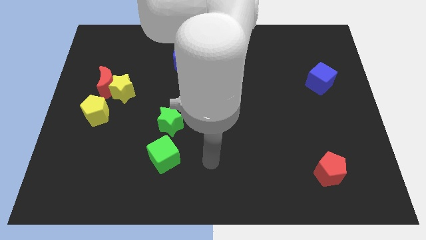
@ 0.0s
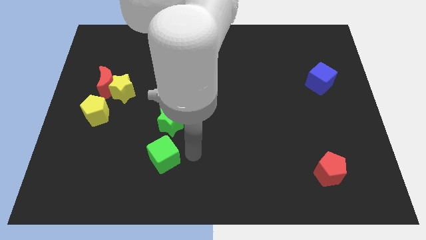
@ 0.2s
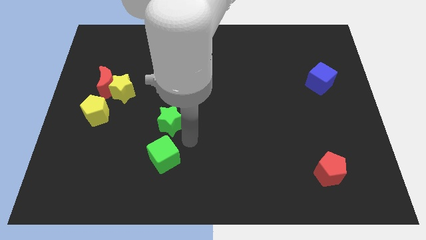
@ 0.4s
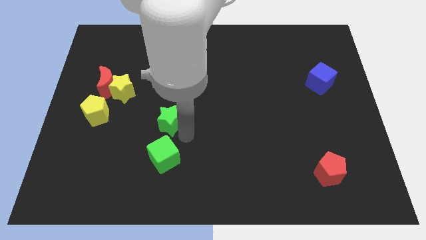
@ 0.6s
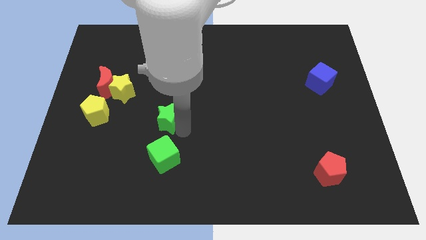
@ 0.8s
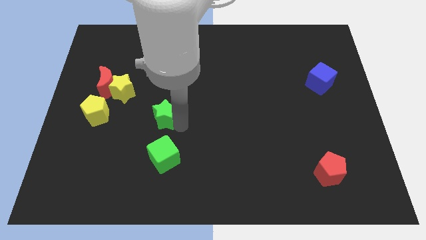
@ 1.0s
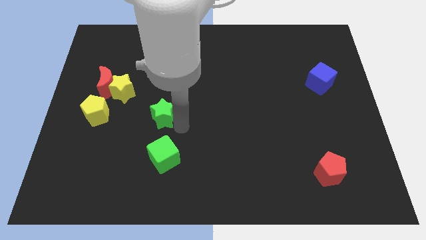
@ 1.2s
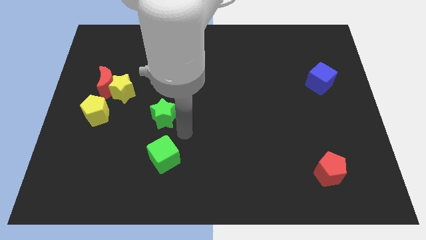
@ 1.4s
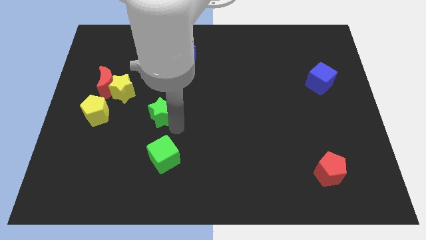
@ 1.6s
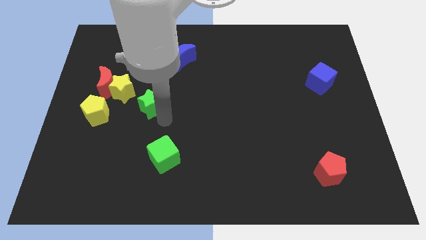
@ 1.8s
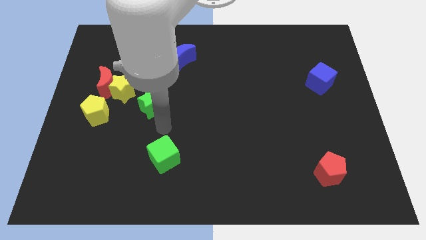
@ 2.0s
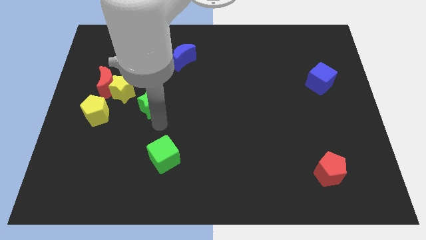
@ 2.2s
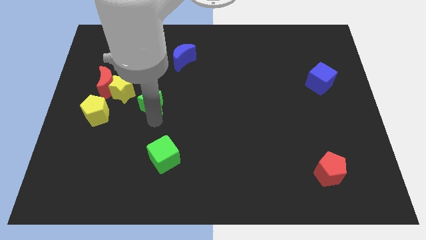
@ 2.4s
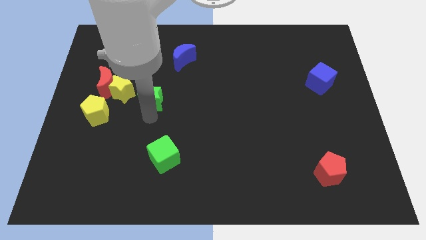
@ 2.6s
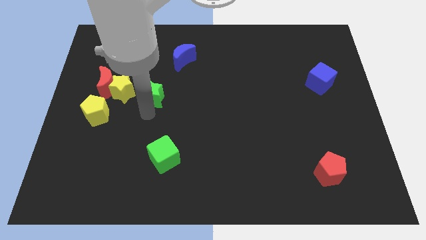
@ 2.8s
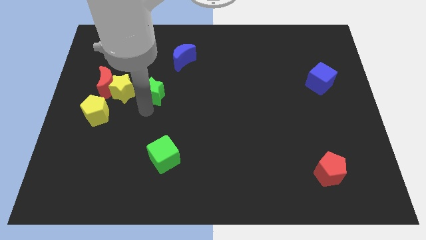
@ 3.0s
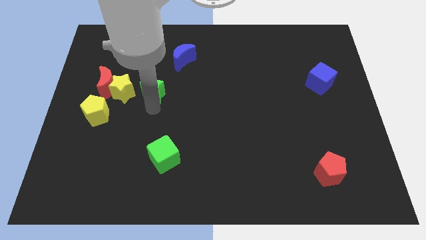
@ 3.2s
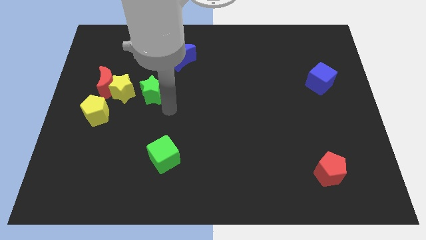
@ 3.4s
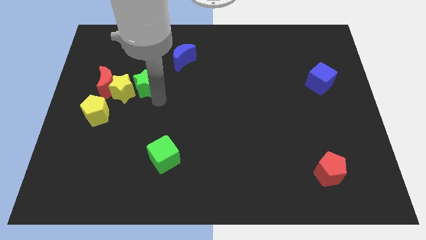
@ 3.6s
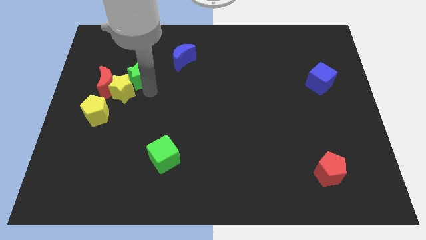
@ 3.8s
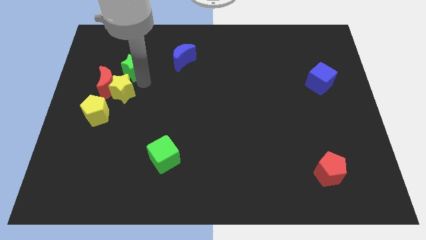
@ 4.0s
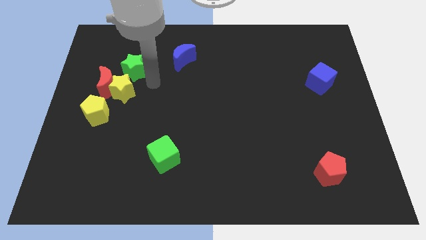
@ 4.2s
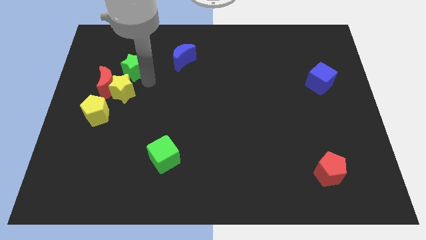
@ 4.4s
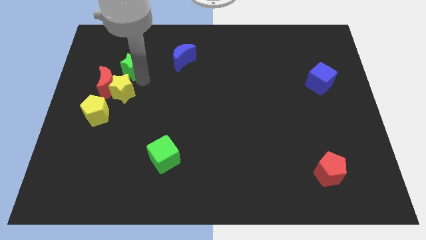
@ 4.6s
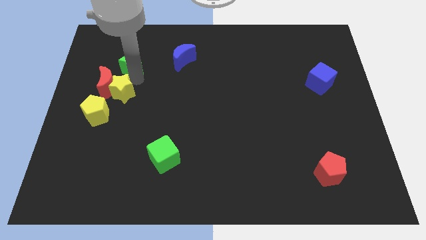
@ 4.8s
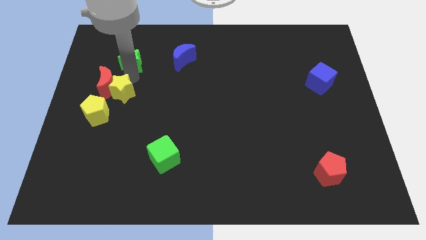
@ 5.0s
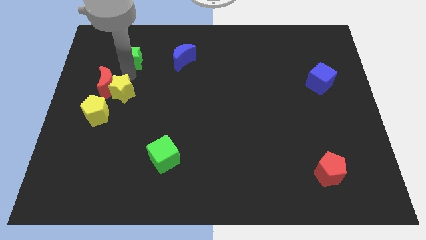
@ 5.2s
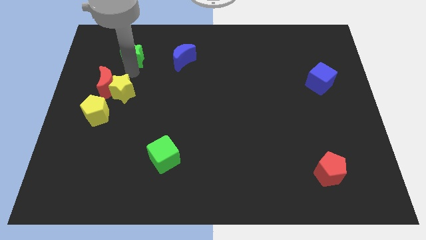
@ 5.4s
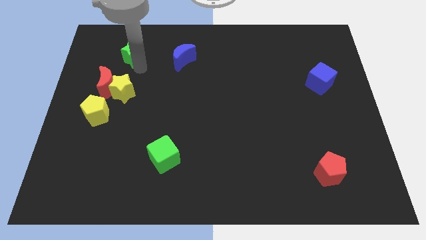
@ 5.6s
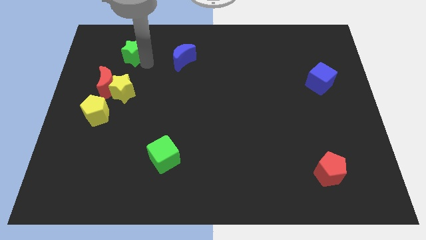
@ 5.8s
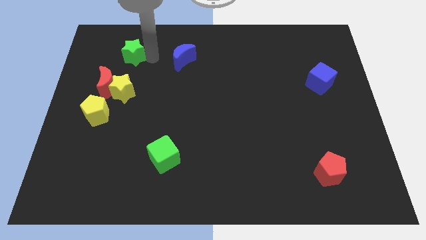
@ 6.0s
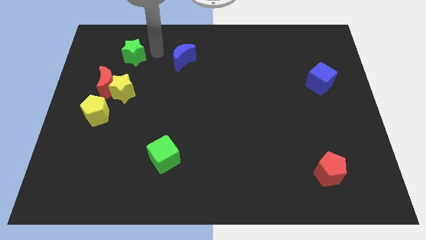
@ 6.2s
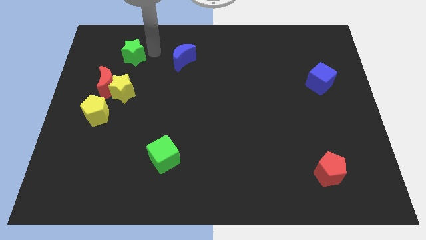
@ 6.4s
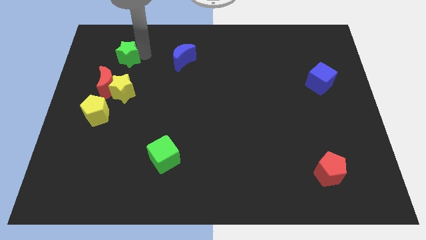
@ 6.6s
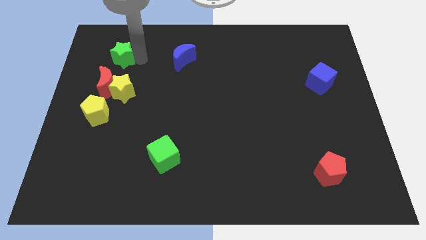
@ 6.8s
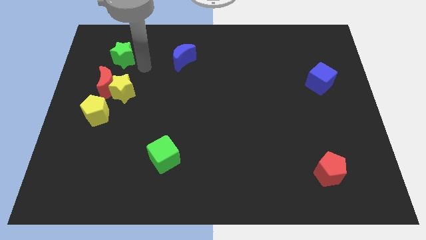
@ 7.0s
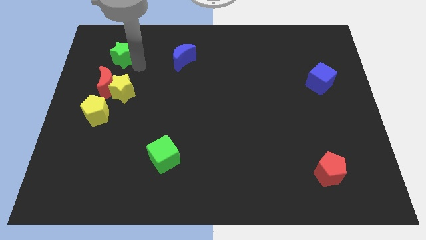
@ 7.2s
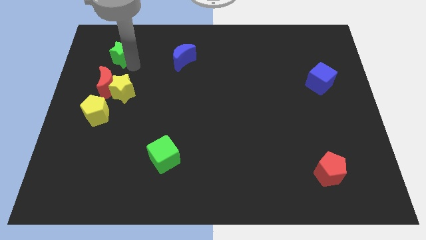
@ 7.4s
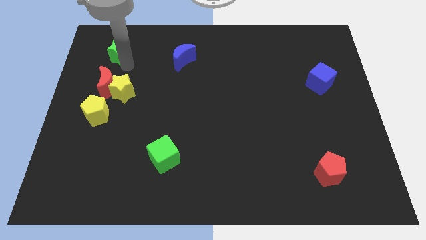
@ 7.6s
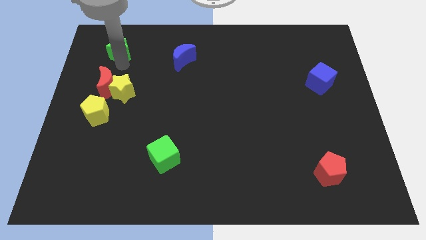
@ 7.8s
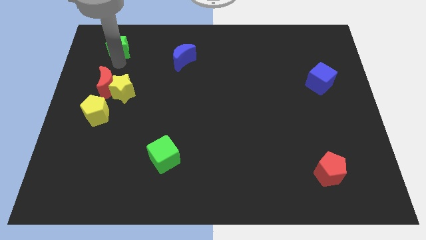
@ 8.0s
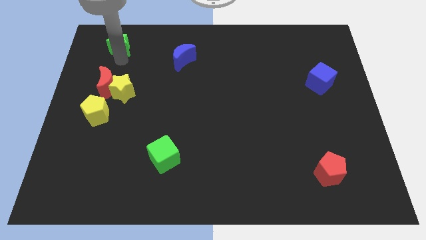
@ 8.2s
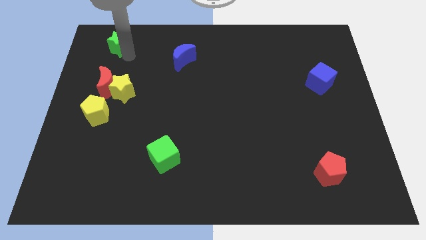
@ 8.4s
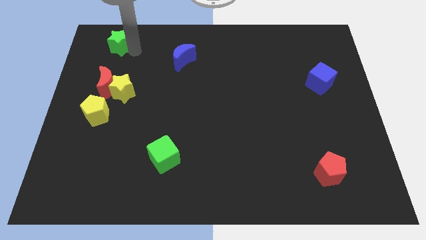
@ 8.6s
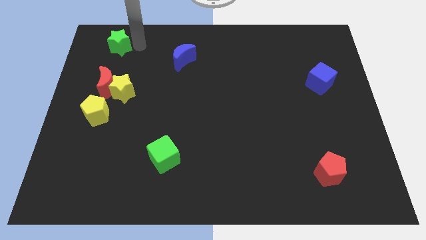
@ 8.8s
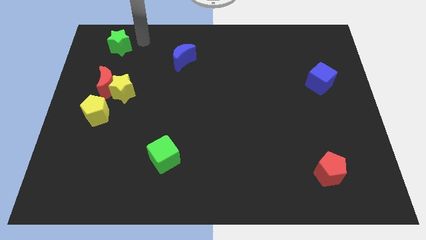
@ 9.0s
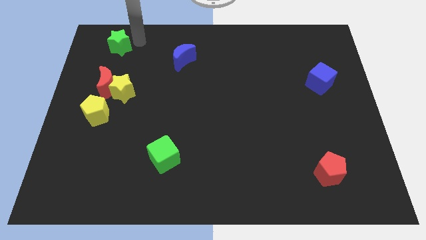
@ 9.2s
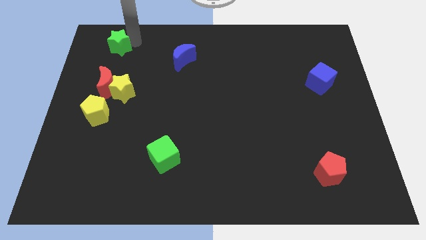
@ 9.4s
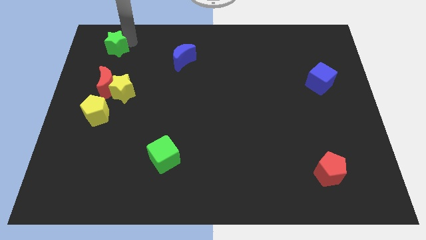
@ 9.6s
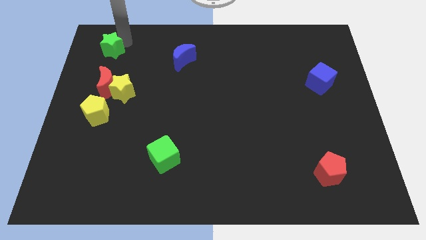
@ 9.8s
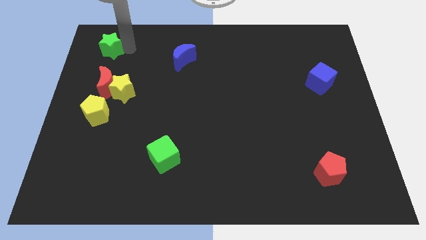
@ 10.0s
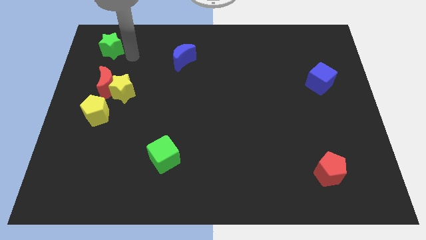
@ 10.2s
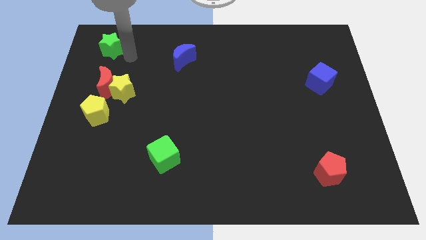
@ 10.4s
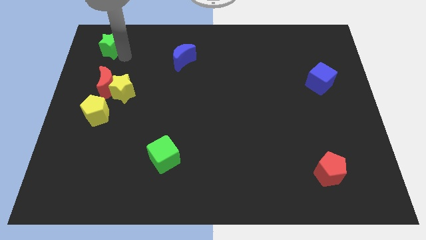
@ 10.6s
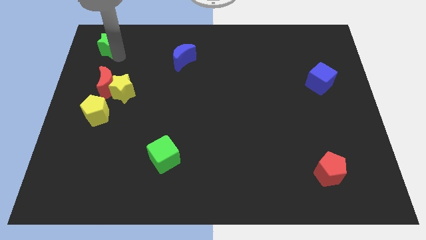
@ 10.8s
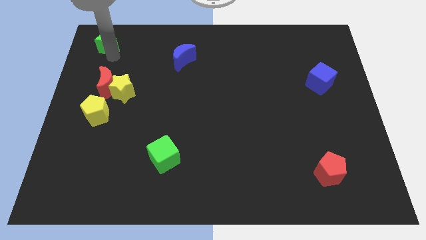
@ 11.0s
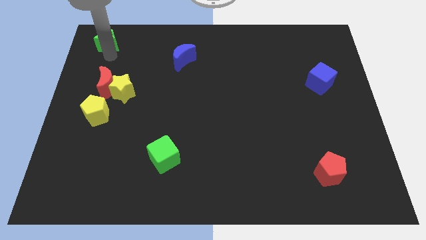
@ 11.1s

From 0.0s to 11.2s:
push the green star to the top left
